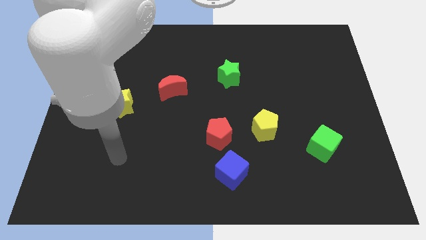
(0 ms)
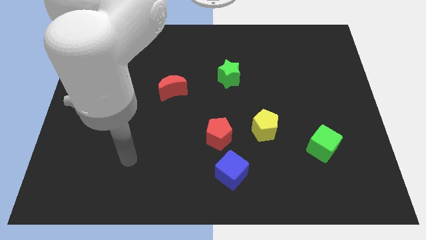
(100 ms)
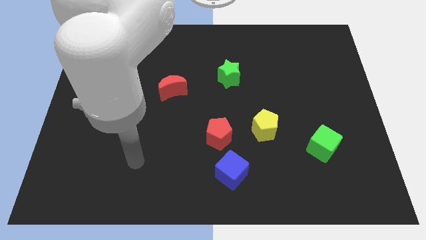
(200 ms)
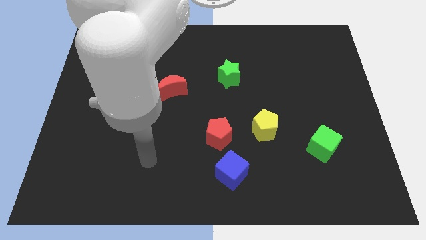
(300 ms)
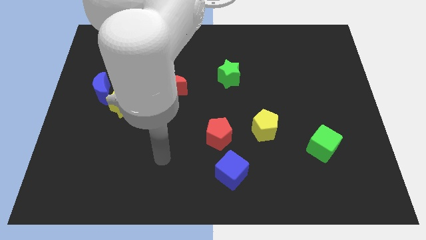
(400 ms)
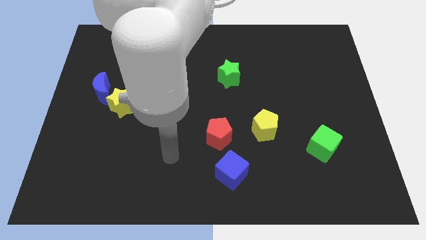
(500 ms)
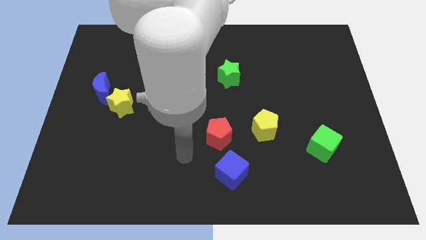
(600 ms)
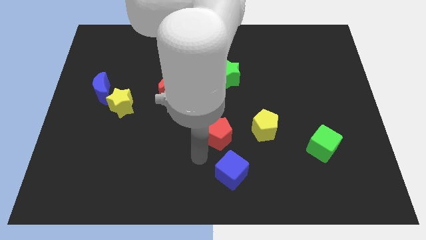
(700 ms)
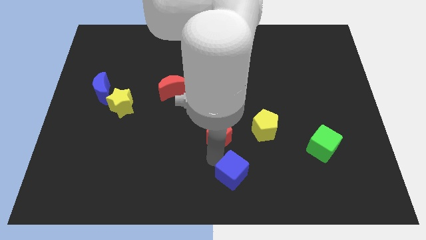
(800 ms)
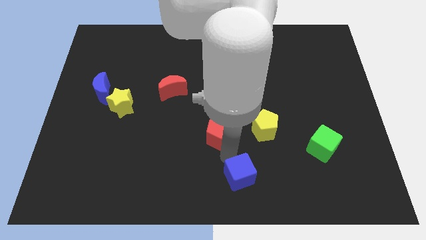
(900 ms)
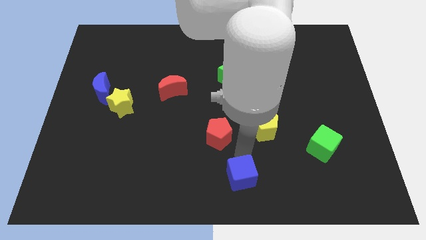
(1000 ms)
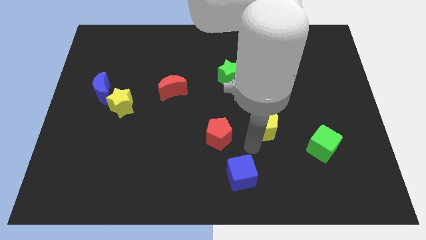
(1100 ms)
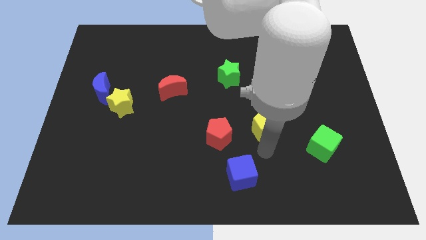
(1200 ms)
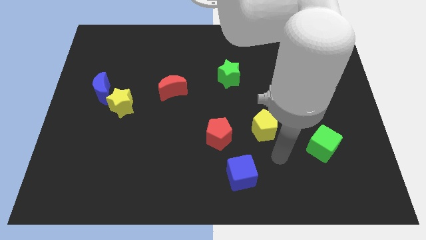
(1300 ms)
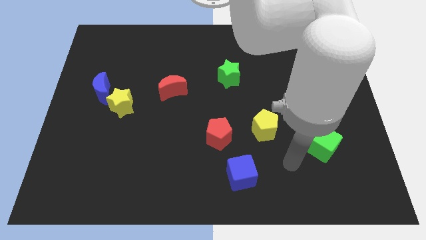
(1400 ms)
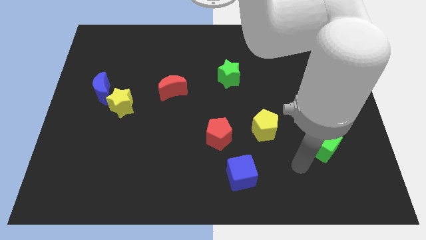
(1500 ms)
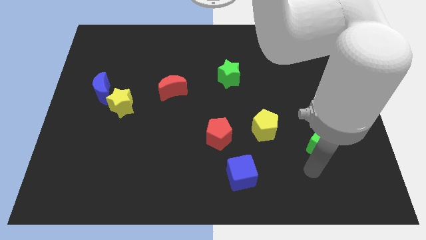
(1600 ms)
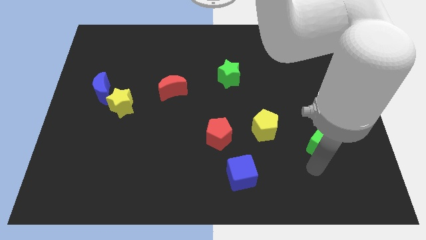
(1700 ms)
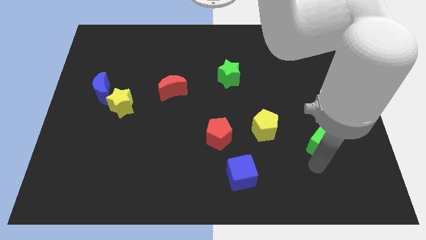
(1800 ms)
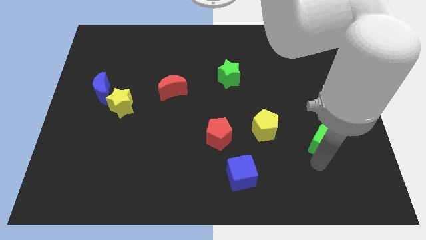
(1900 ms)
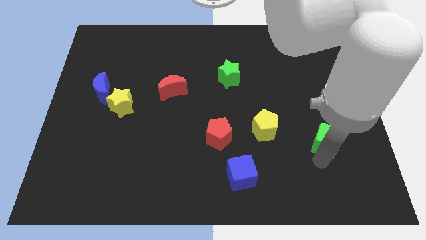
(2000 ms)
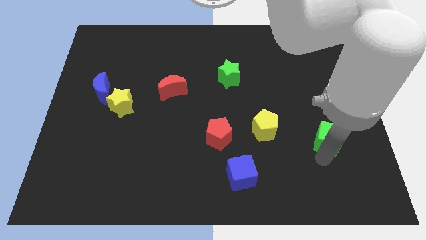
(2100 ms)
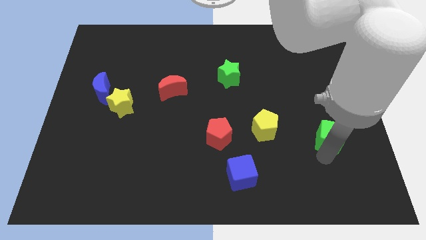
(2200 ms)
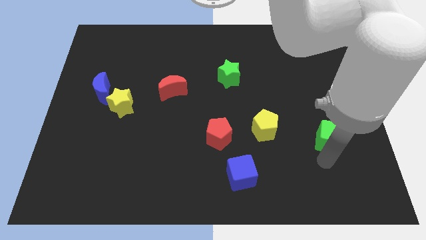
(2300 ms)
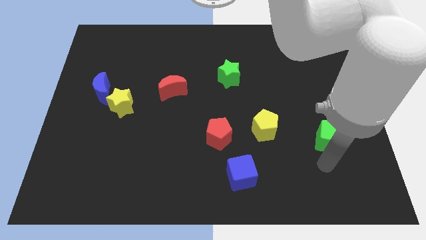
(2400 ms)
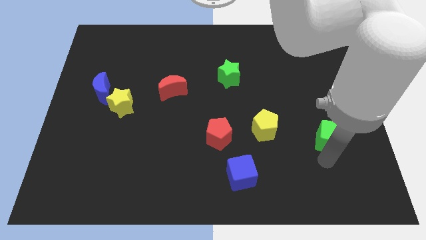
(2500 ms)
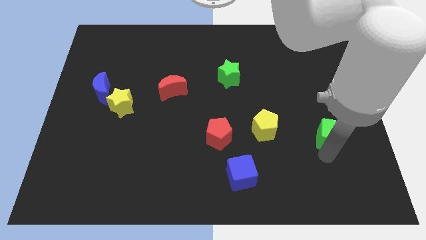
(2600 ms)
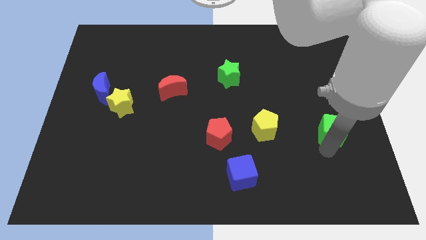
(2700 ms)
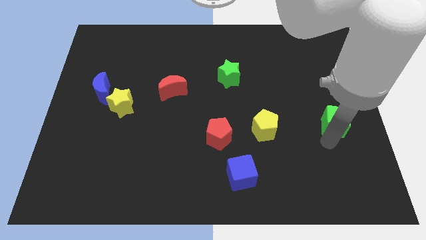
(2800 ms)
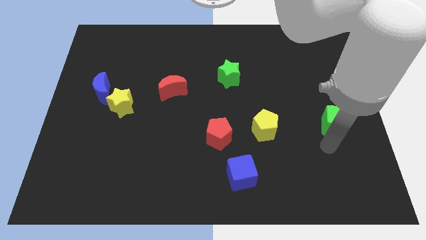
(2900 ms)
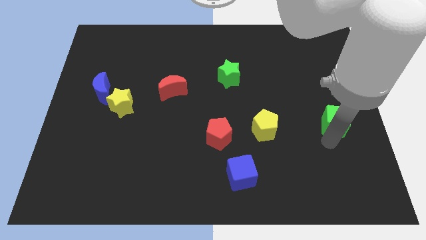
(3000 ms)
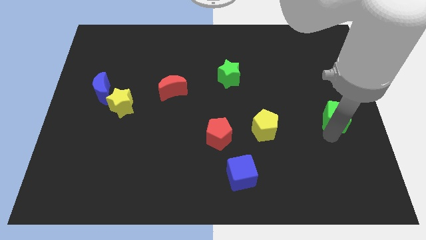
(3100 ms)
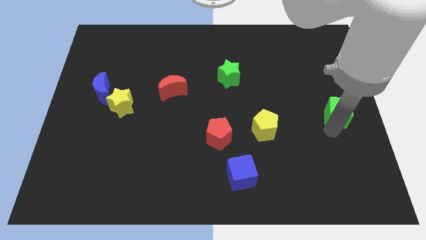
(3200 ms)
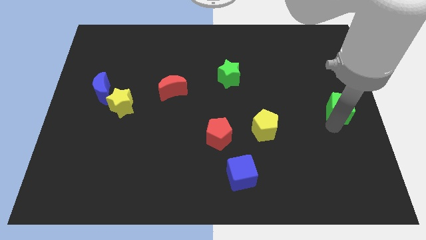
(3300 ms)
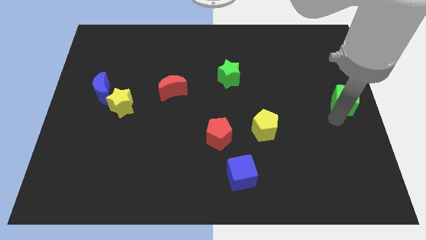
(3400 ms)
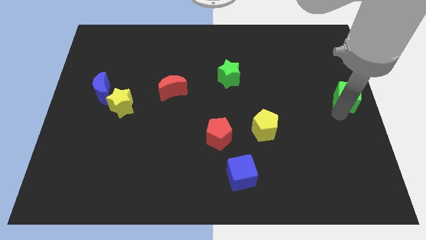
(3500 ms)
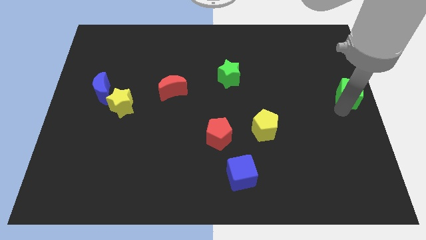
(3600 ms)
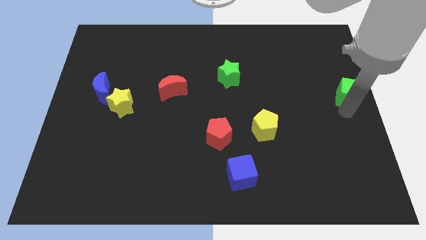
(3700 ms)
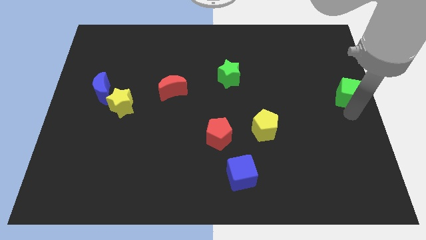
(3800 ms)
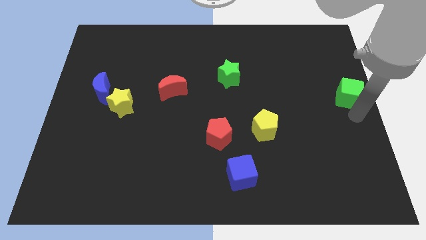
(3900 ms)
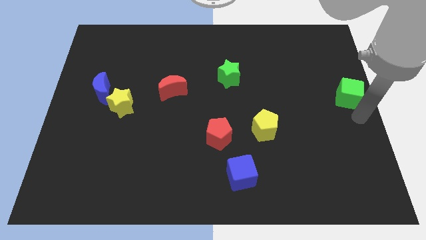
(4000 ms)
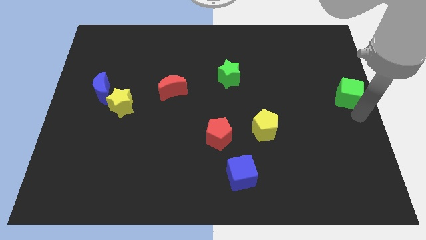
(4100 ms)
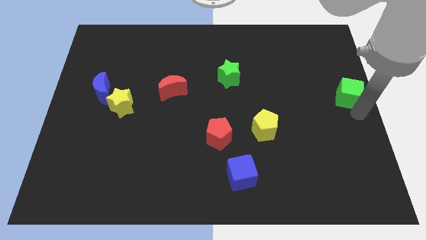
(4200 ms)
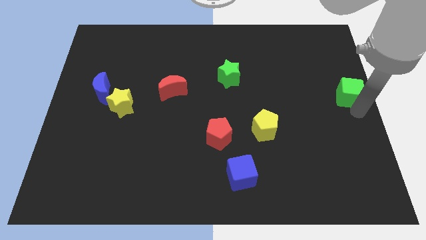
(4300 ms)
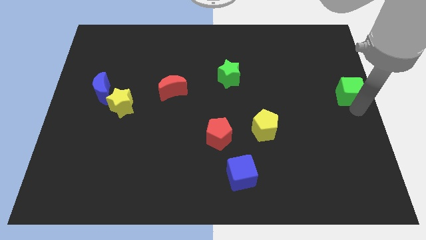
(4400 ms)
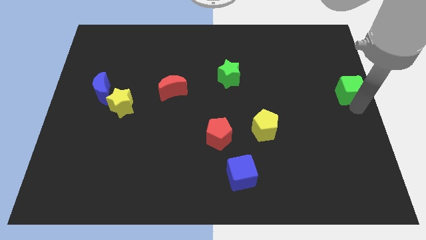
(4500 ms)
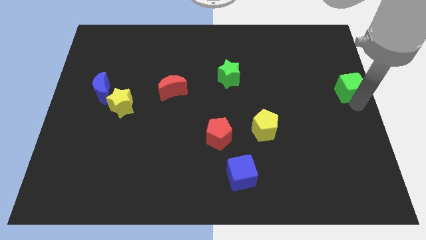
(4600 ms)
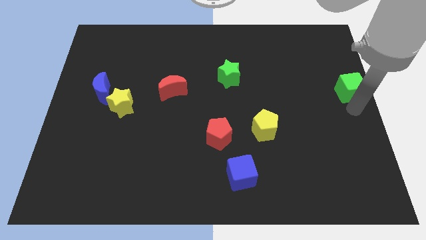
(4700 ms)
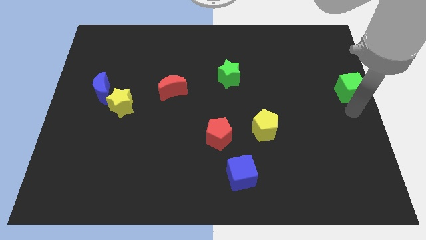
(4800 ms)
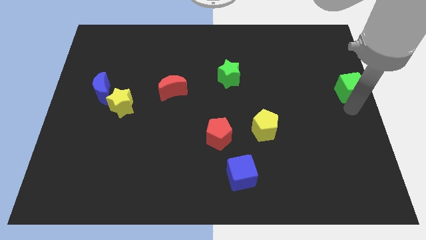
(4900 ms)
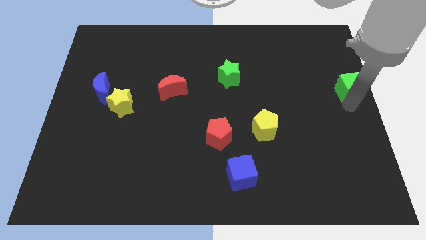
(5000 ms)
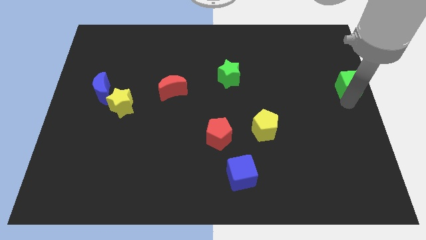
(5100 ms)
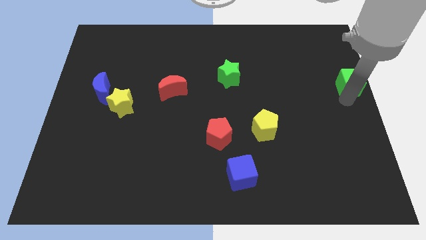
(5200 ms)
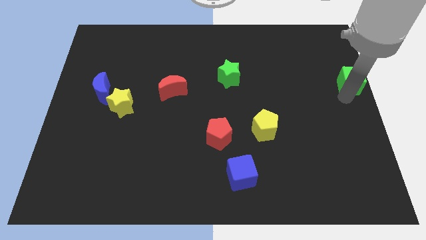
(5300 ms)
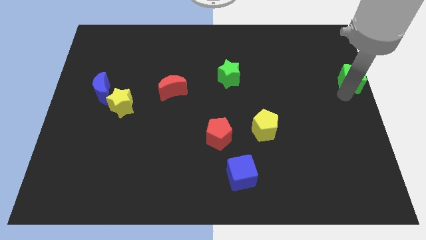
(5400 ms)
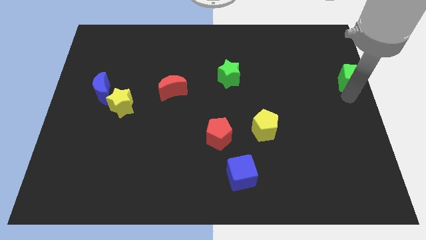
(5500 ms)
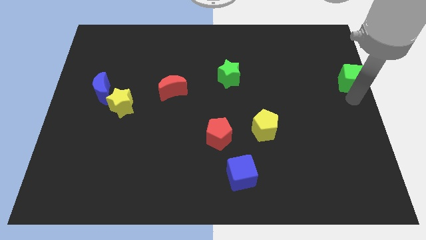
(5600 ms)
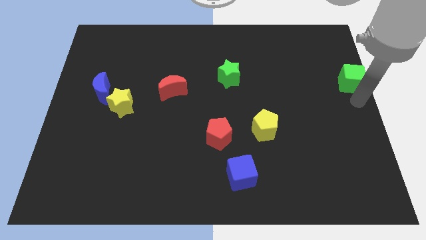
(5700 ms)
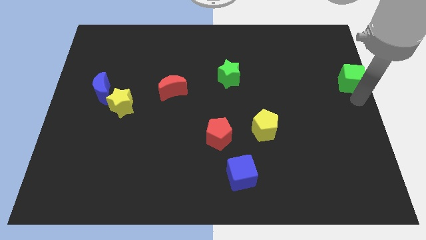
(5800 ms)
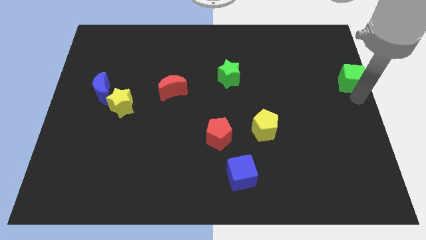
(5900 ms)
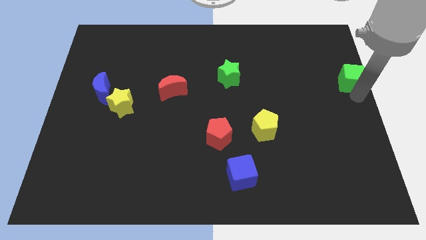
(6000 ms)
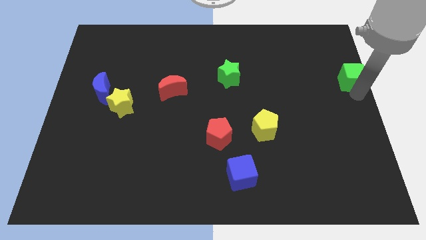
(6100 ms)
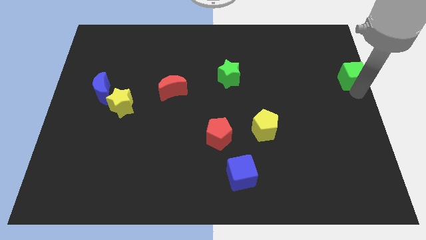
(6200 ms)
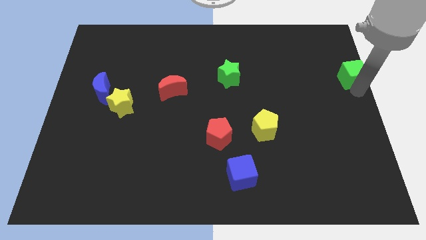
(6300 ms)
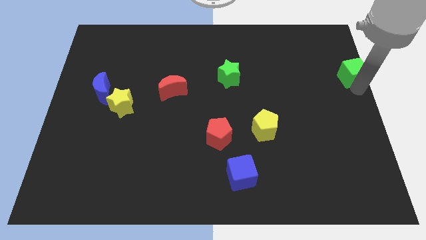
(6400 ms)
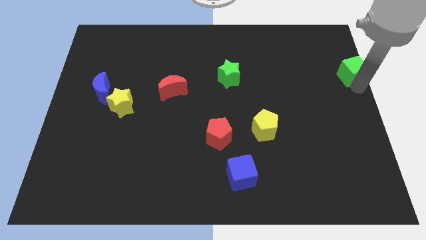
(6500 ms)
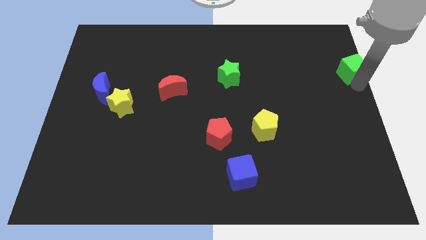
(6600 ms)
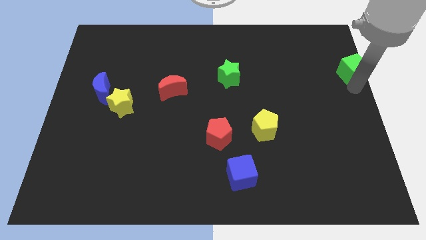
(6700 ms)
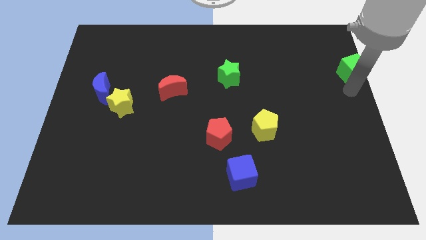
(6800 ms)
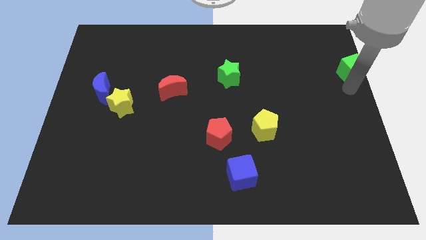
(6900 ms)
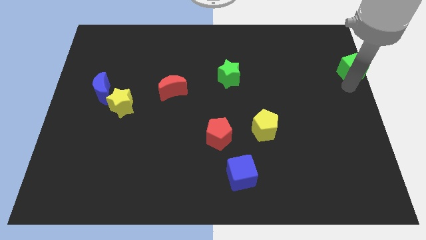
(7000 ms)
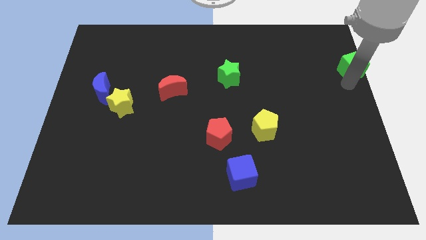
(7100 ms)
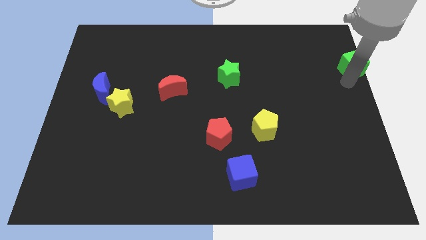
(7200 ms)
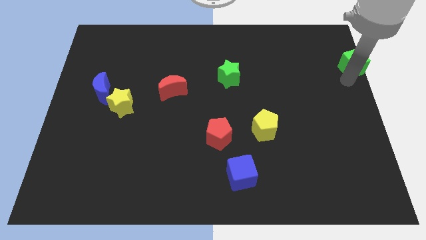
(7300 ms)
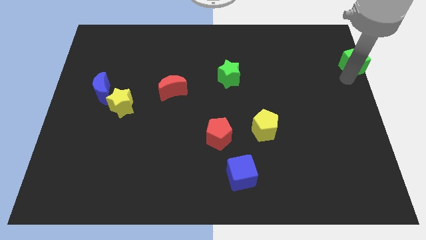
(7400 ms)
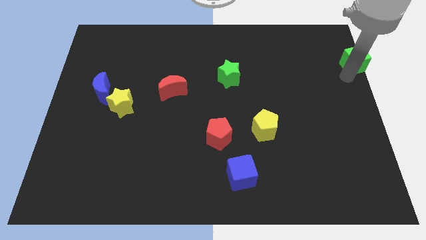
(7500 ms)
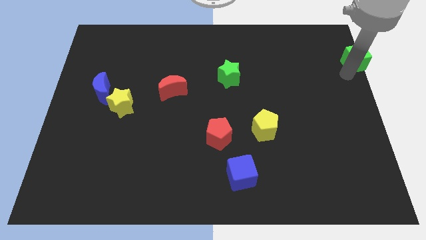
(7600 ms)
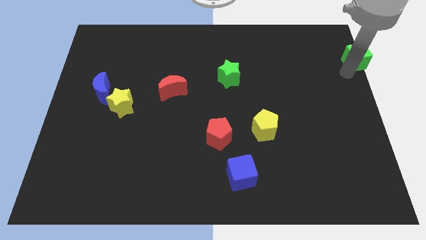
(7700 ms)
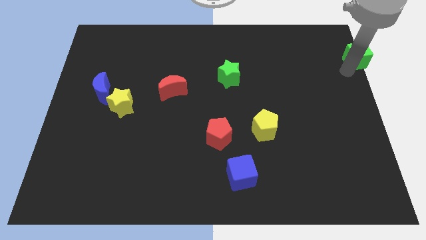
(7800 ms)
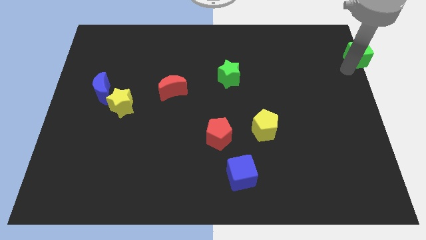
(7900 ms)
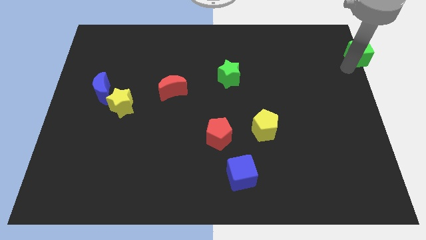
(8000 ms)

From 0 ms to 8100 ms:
slide the green cube to the upper right corner
